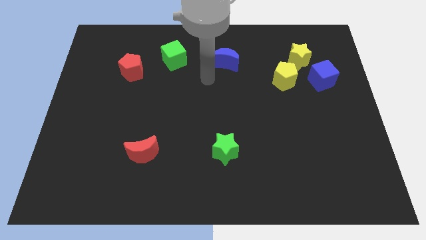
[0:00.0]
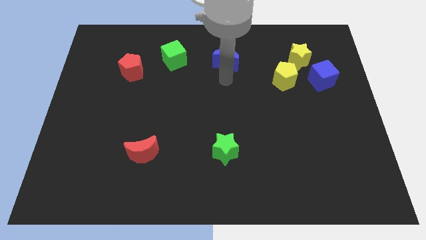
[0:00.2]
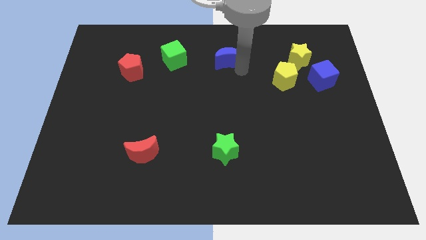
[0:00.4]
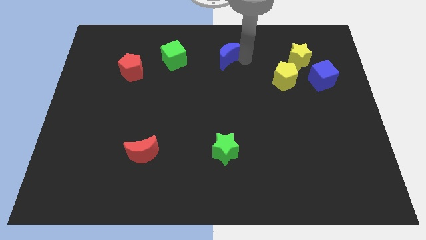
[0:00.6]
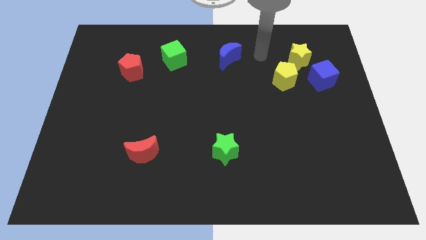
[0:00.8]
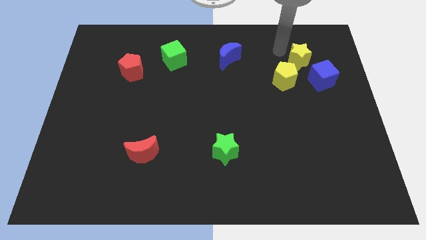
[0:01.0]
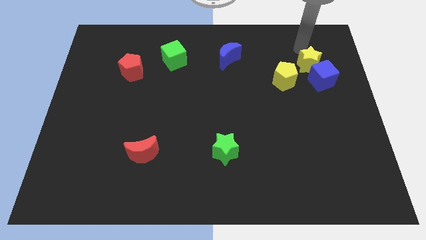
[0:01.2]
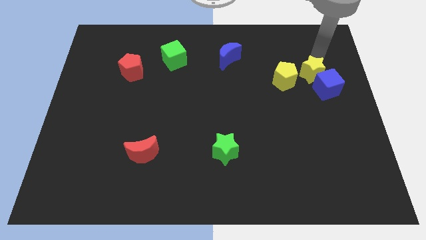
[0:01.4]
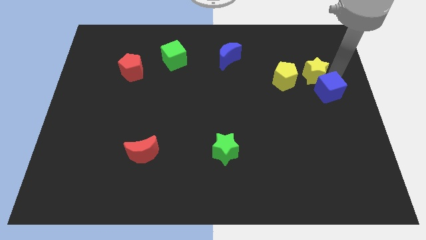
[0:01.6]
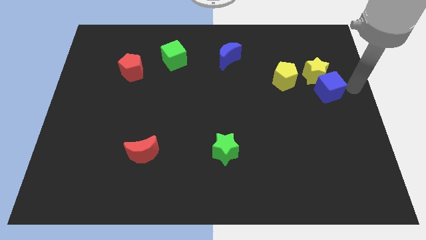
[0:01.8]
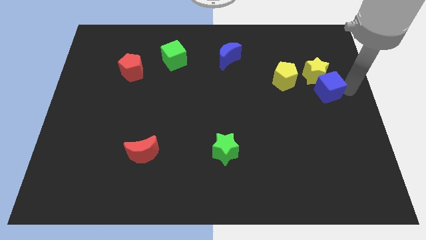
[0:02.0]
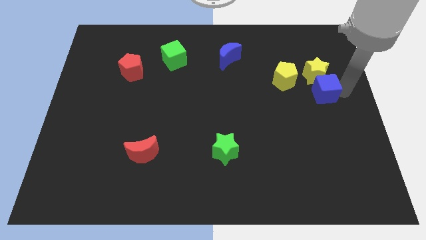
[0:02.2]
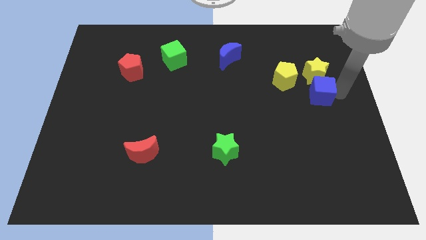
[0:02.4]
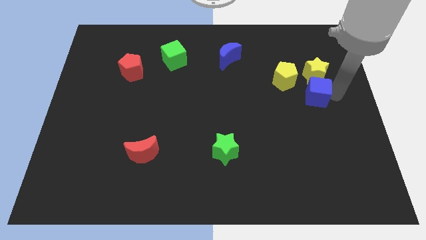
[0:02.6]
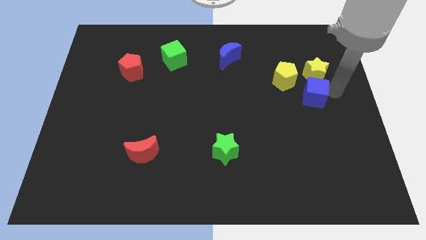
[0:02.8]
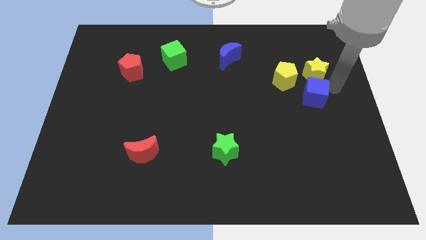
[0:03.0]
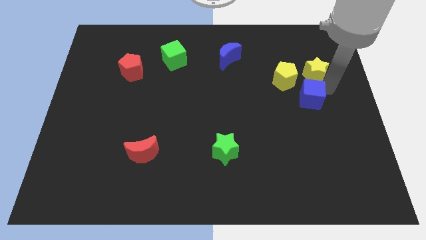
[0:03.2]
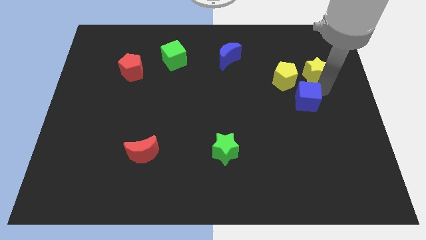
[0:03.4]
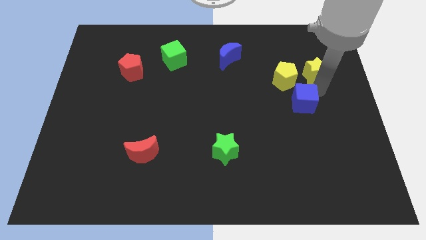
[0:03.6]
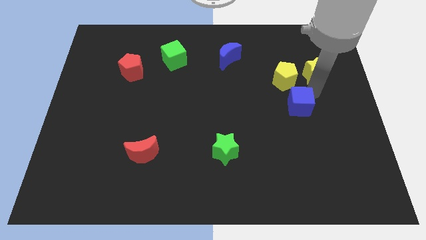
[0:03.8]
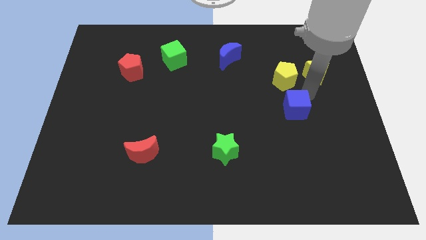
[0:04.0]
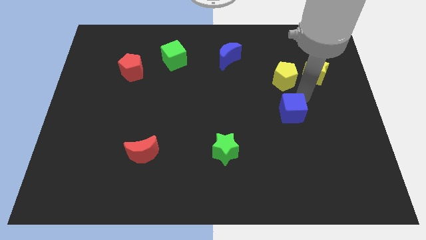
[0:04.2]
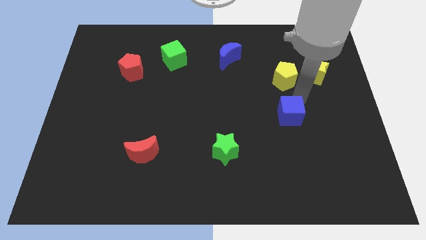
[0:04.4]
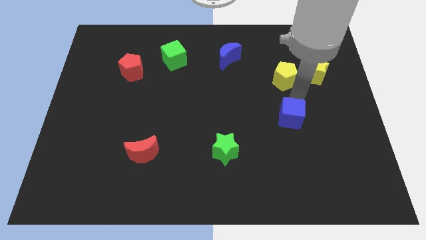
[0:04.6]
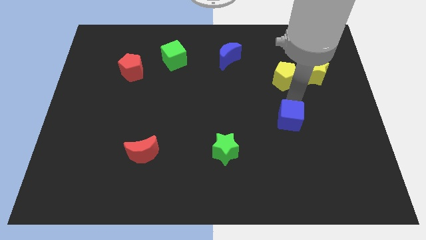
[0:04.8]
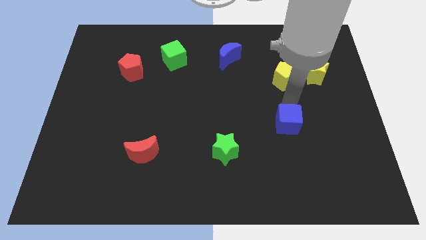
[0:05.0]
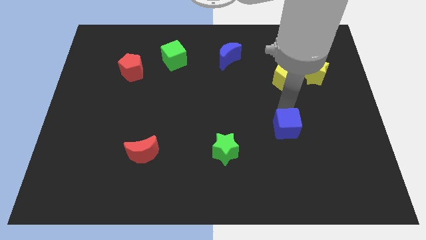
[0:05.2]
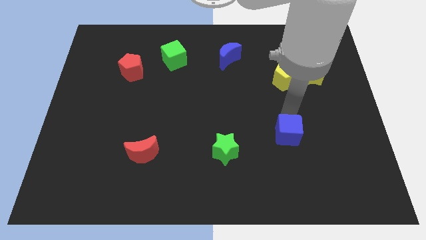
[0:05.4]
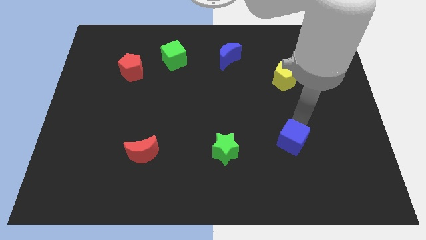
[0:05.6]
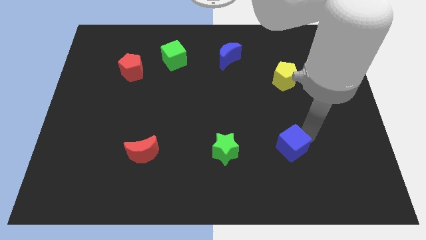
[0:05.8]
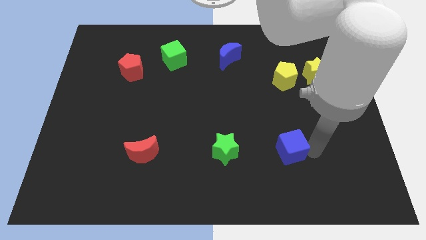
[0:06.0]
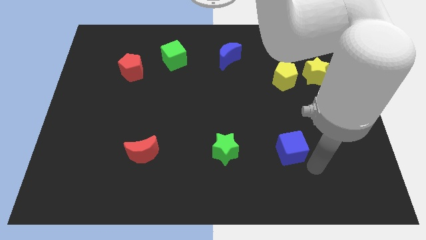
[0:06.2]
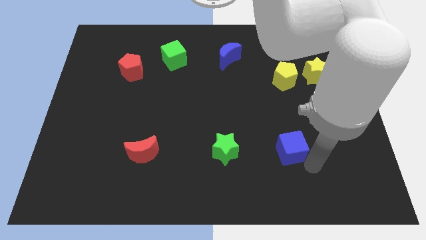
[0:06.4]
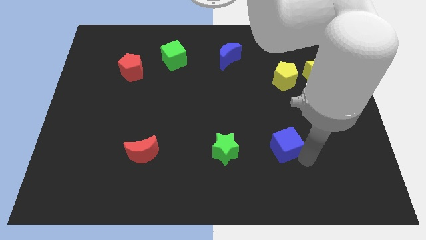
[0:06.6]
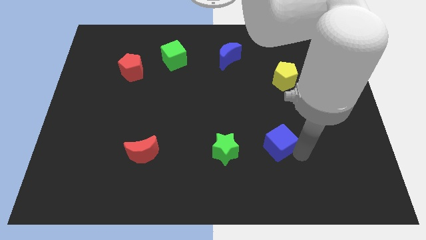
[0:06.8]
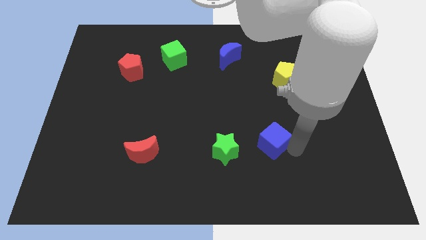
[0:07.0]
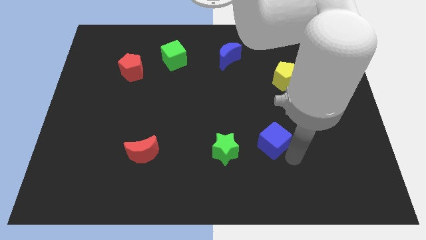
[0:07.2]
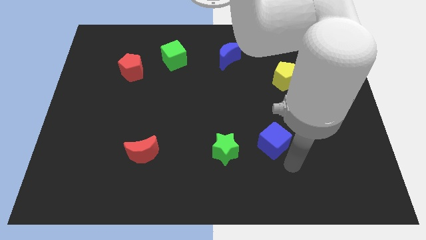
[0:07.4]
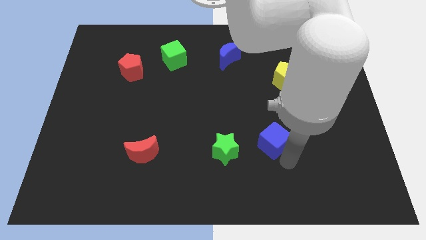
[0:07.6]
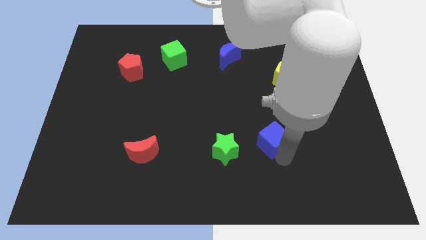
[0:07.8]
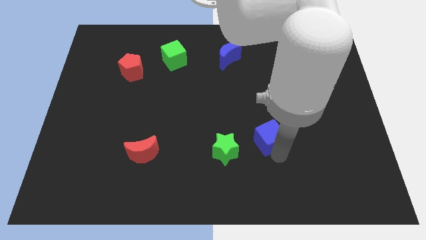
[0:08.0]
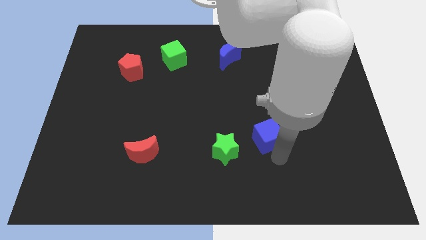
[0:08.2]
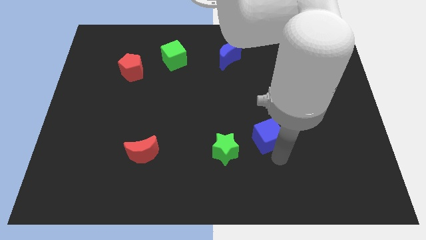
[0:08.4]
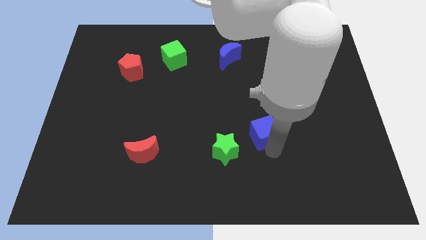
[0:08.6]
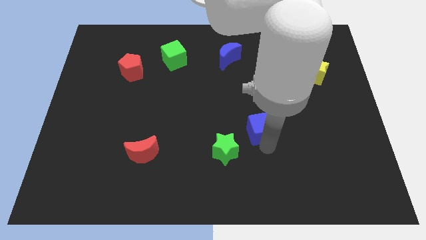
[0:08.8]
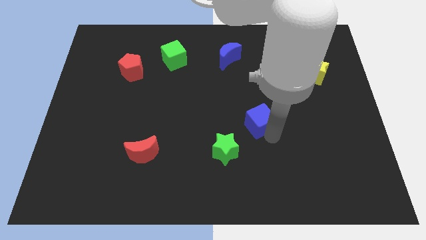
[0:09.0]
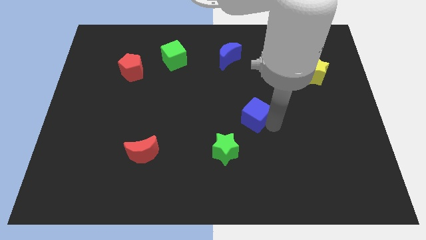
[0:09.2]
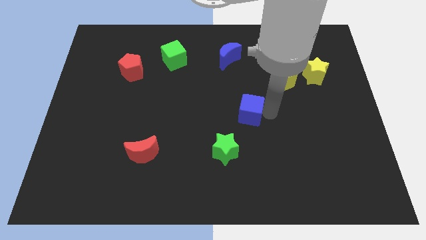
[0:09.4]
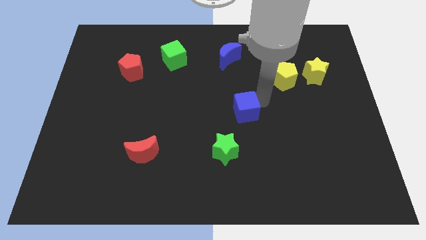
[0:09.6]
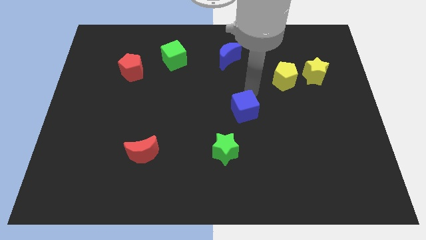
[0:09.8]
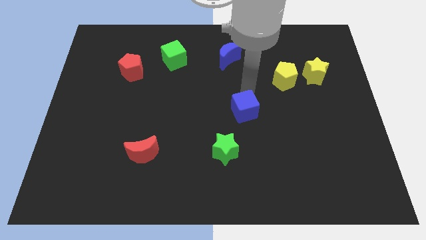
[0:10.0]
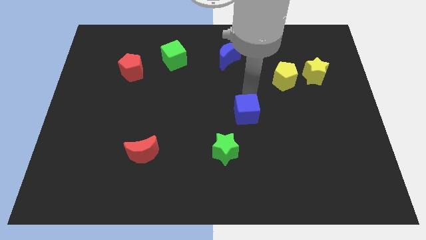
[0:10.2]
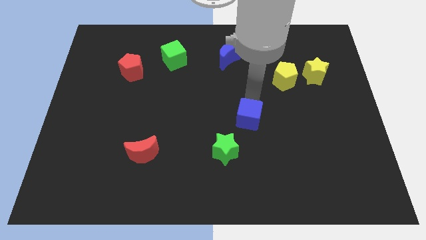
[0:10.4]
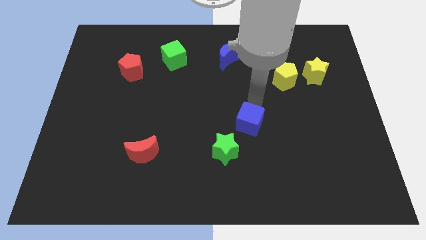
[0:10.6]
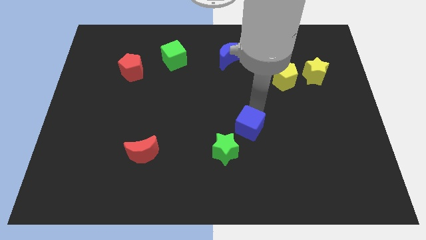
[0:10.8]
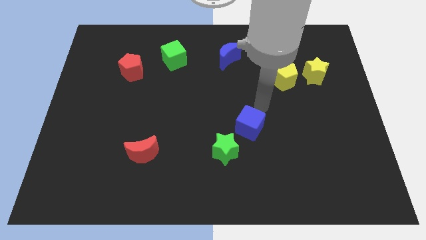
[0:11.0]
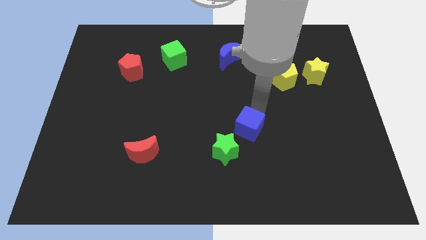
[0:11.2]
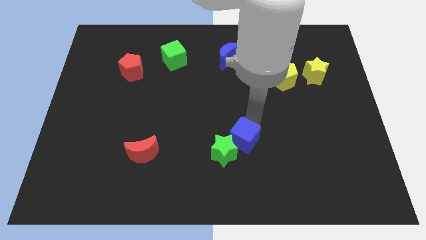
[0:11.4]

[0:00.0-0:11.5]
move the blue cube close to the green star

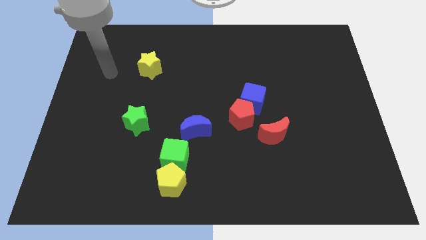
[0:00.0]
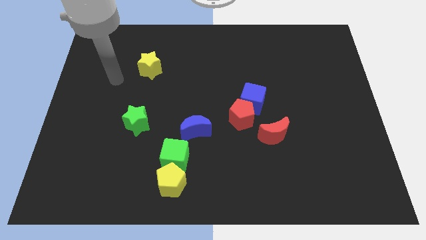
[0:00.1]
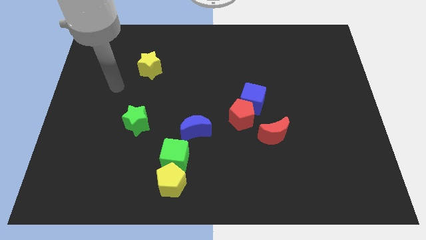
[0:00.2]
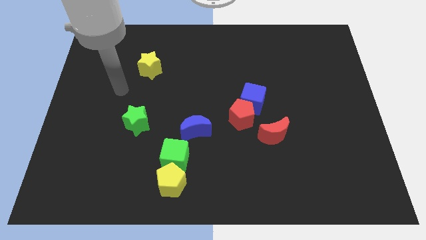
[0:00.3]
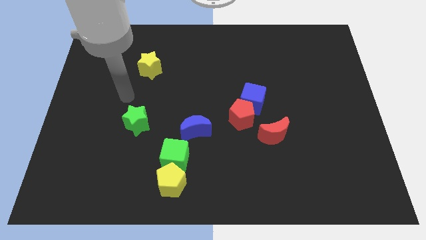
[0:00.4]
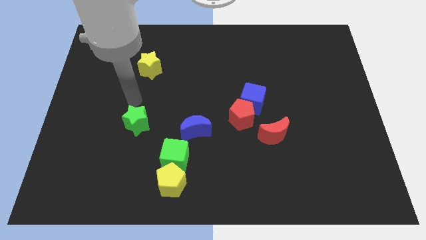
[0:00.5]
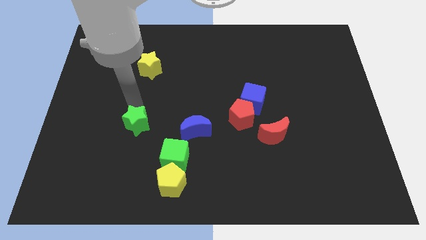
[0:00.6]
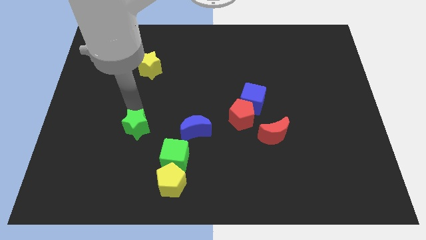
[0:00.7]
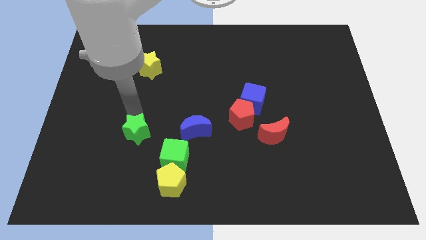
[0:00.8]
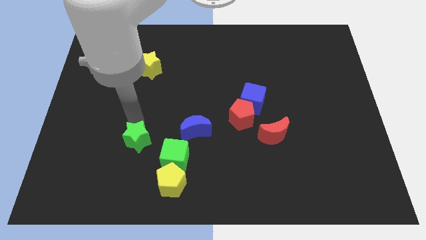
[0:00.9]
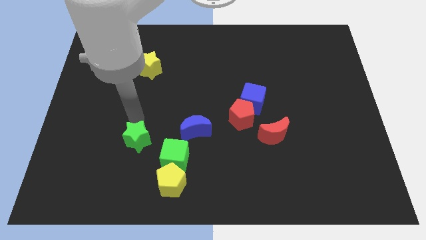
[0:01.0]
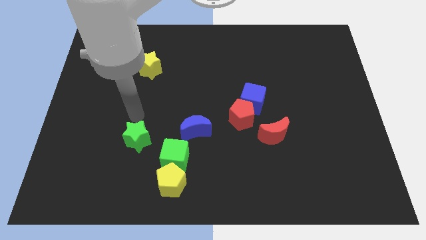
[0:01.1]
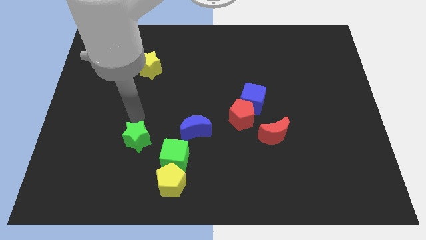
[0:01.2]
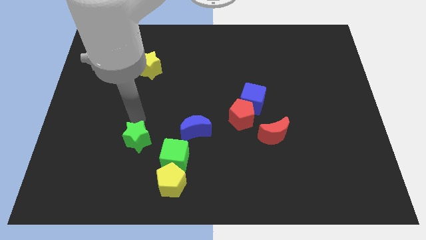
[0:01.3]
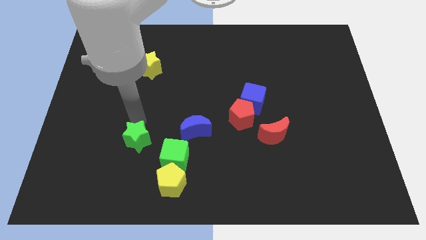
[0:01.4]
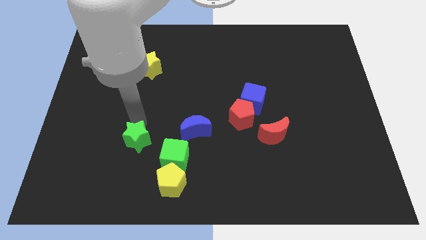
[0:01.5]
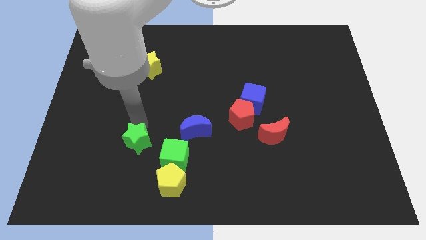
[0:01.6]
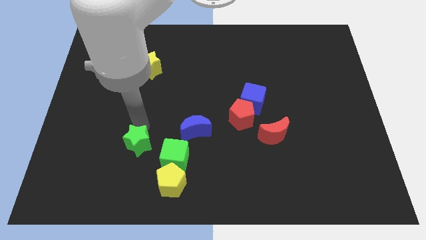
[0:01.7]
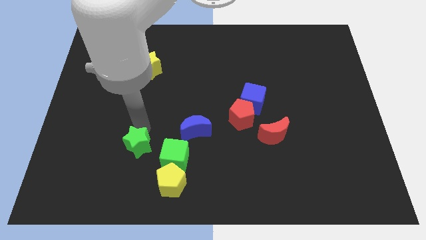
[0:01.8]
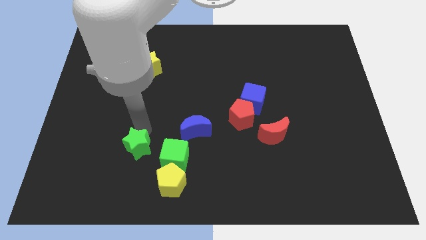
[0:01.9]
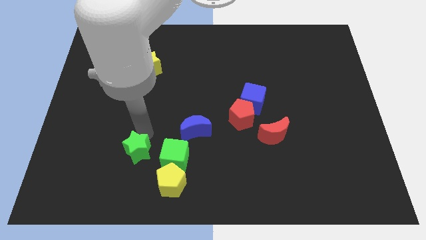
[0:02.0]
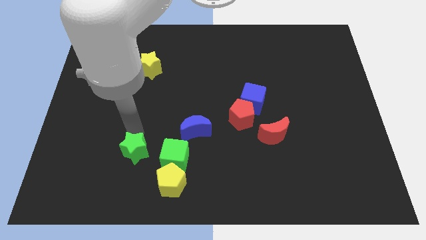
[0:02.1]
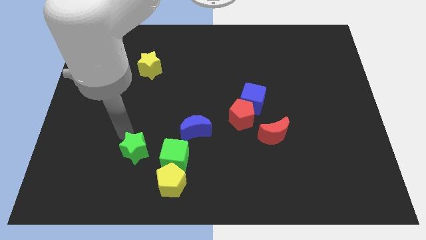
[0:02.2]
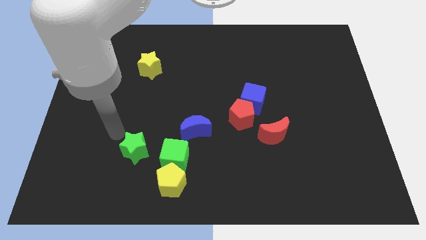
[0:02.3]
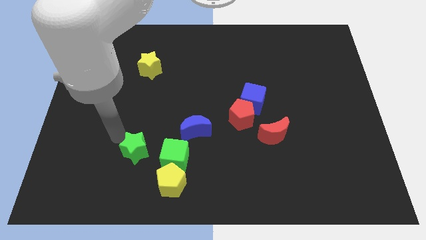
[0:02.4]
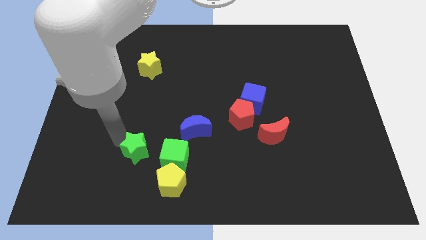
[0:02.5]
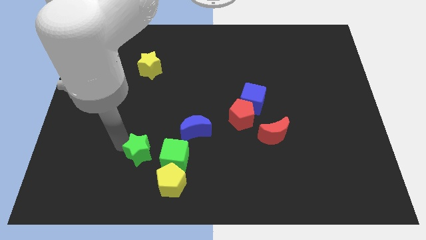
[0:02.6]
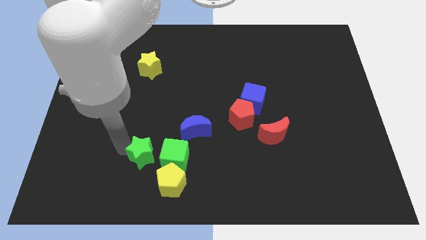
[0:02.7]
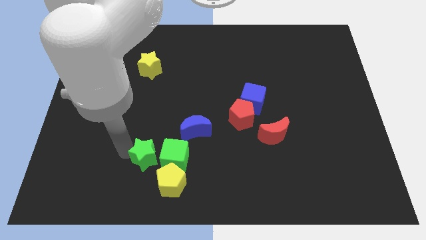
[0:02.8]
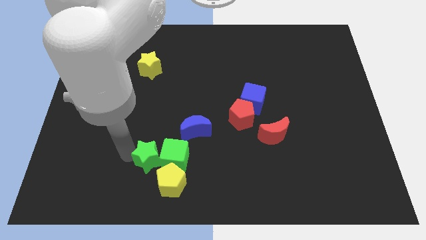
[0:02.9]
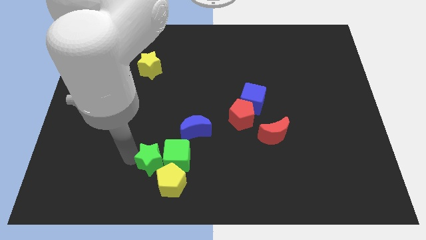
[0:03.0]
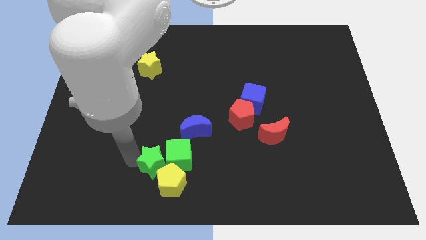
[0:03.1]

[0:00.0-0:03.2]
put the green star to the yellow pentagon
